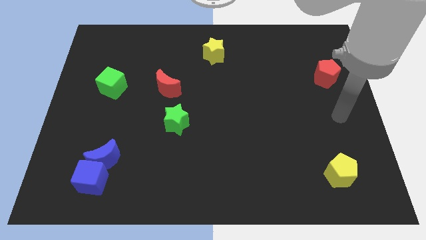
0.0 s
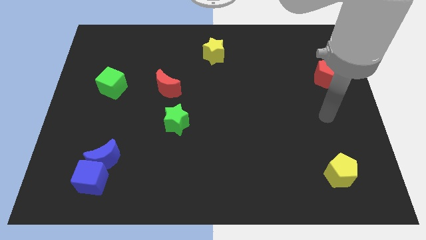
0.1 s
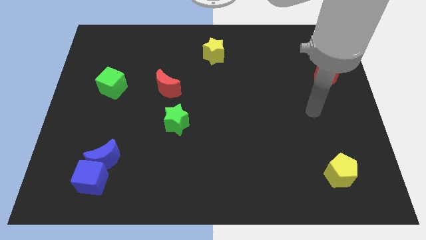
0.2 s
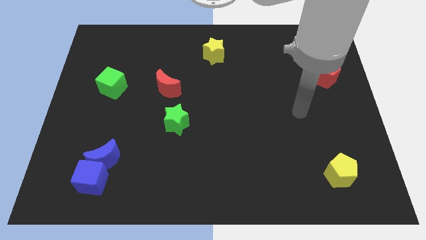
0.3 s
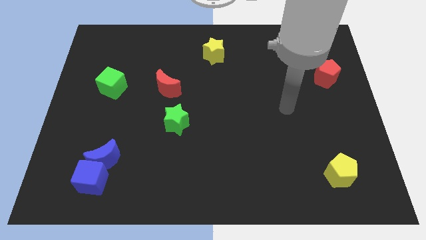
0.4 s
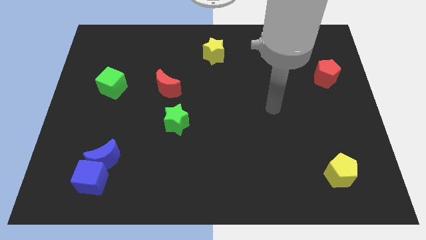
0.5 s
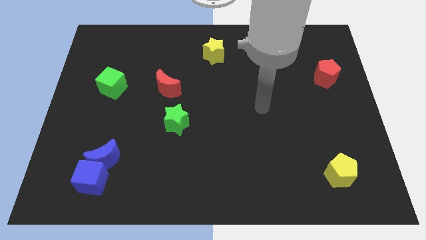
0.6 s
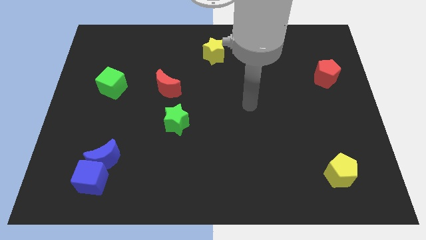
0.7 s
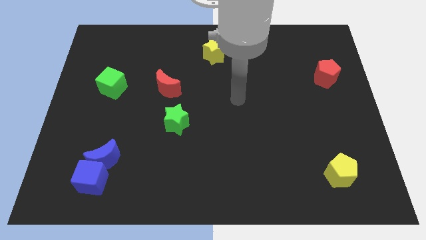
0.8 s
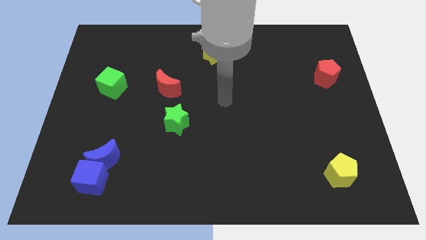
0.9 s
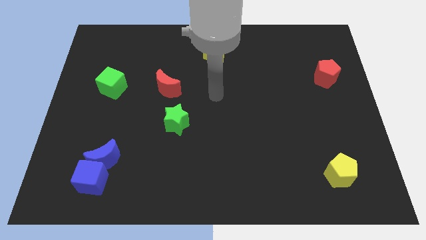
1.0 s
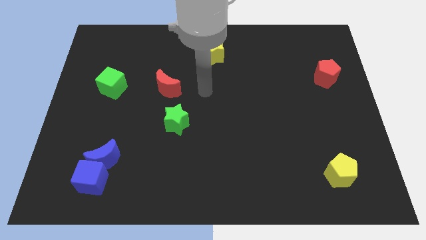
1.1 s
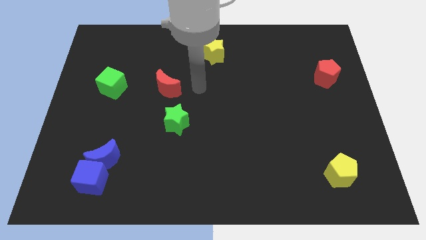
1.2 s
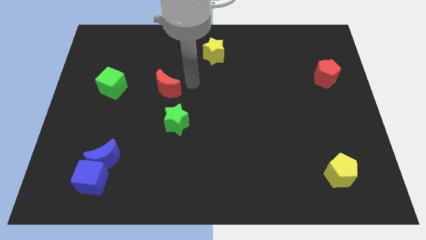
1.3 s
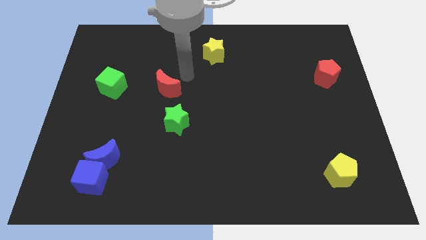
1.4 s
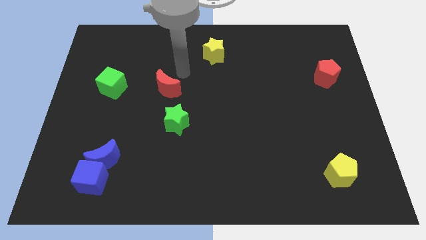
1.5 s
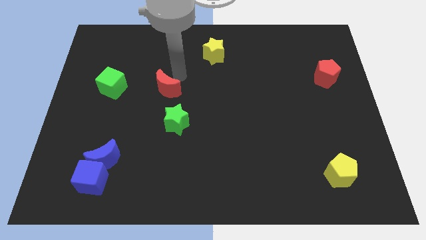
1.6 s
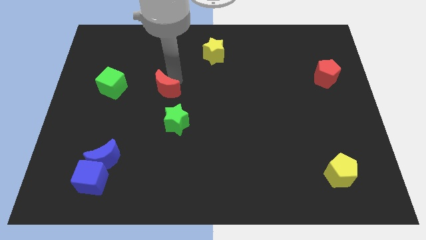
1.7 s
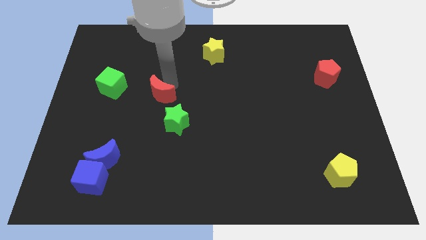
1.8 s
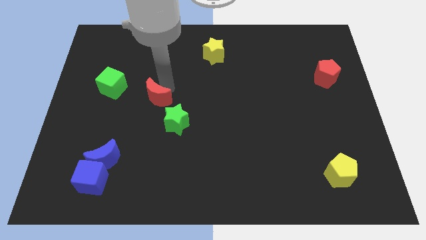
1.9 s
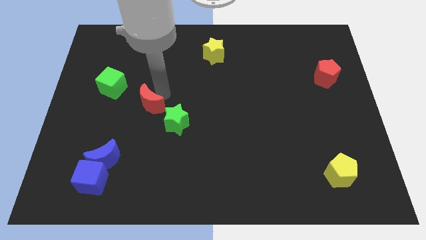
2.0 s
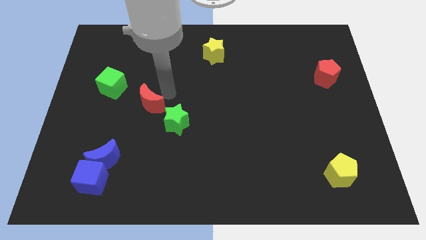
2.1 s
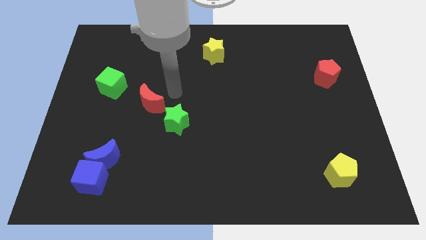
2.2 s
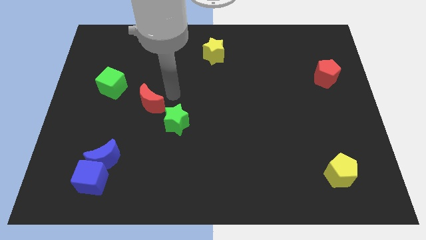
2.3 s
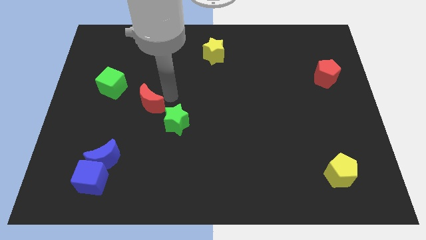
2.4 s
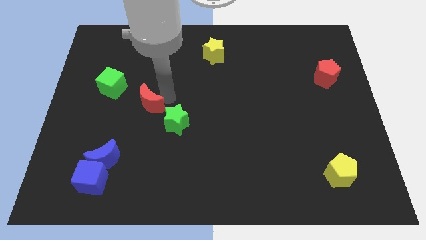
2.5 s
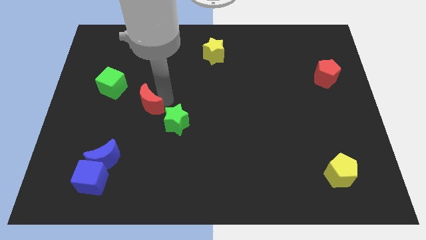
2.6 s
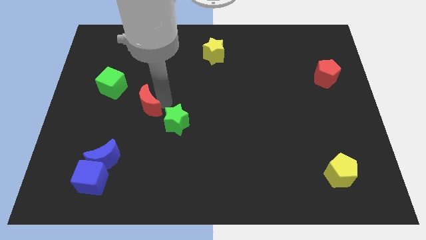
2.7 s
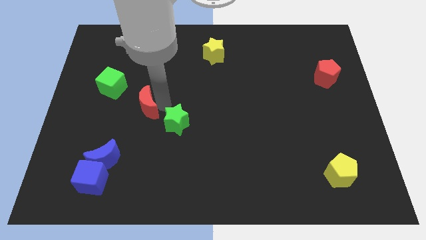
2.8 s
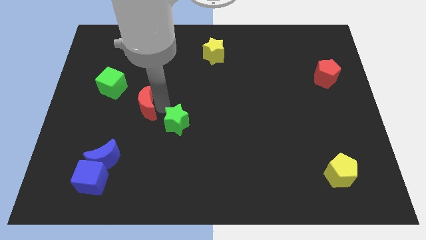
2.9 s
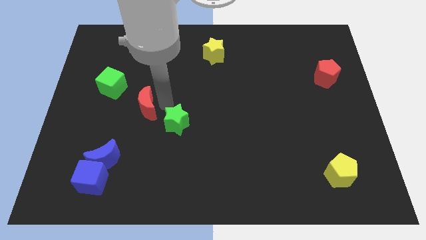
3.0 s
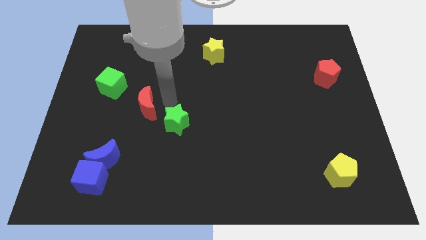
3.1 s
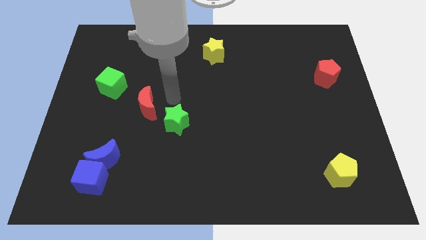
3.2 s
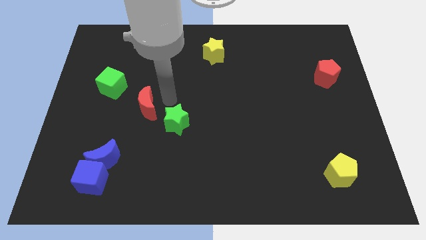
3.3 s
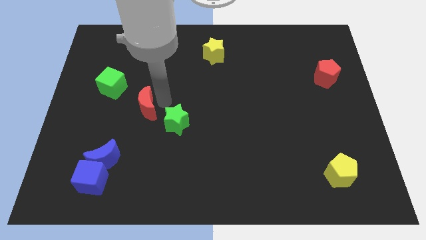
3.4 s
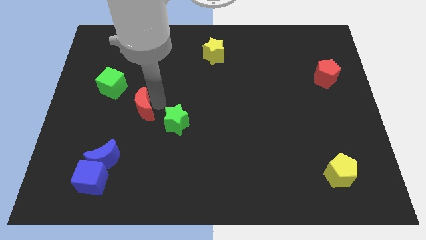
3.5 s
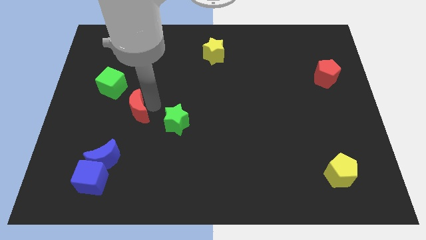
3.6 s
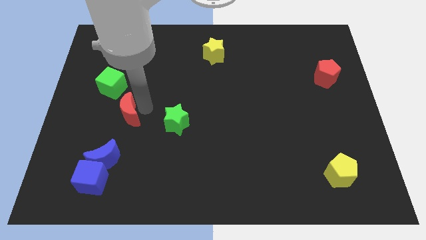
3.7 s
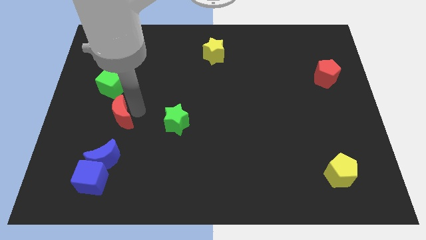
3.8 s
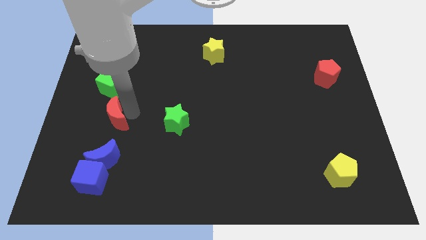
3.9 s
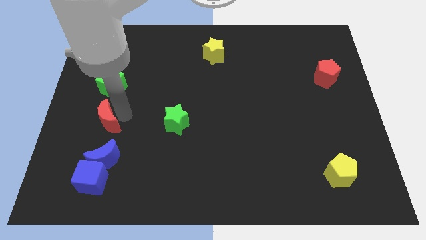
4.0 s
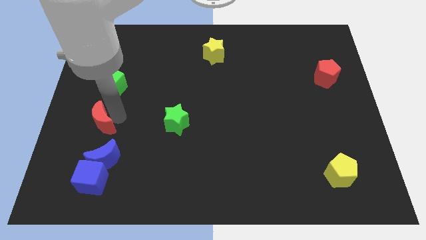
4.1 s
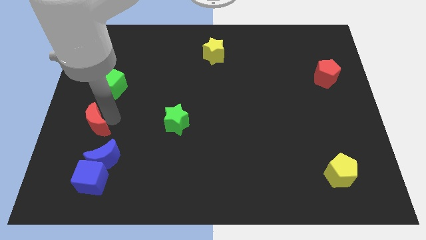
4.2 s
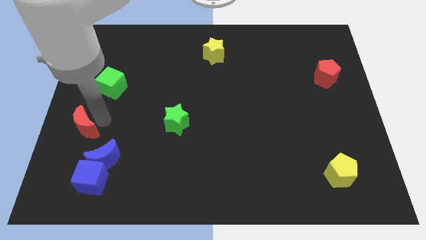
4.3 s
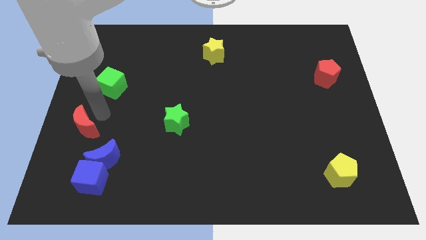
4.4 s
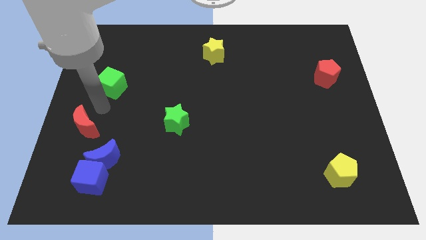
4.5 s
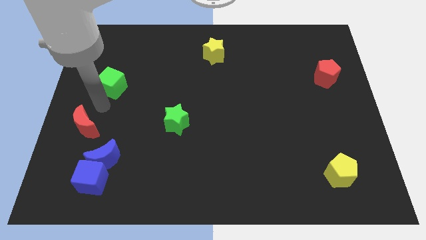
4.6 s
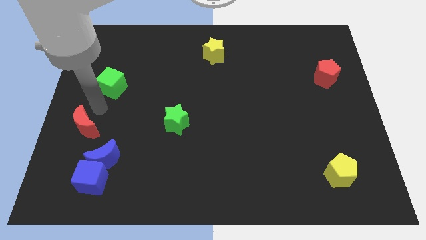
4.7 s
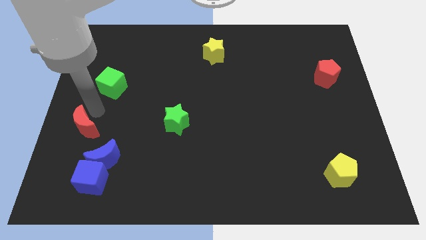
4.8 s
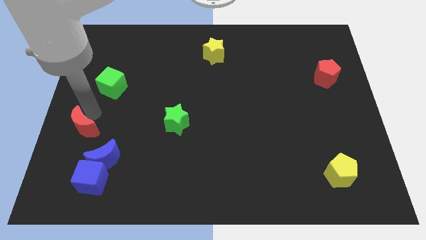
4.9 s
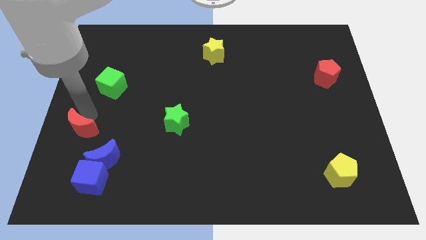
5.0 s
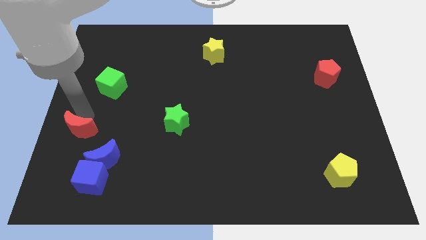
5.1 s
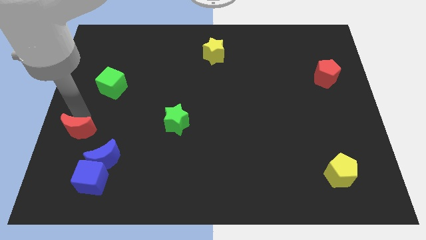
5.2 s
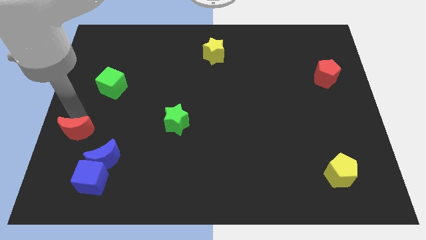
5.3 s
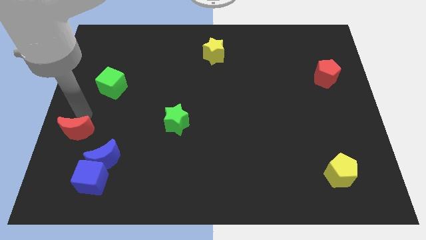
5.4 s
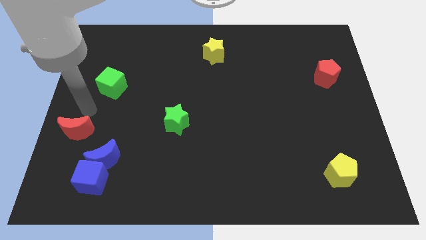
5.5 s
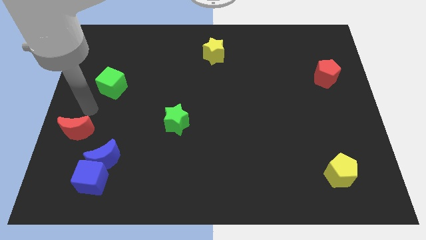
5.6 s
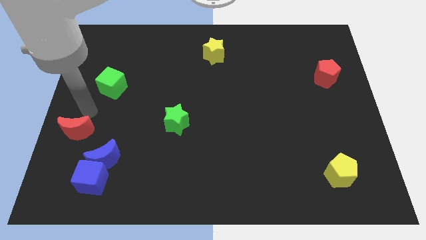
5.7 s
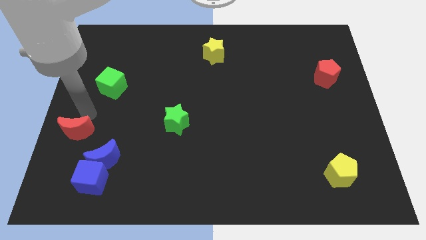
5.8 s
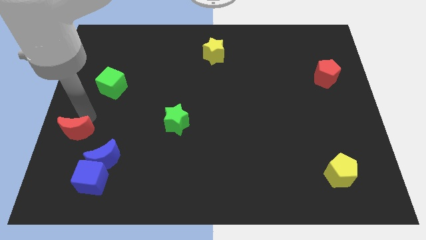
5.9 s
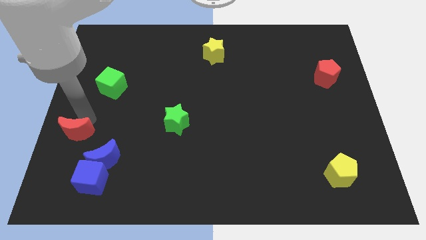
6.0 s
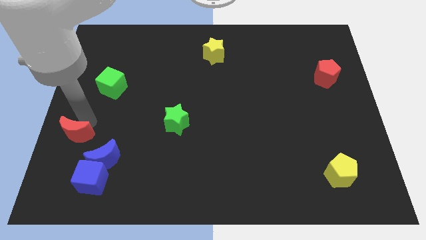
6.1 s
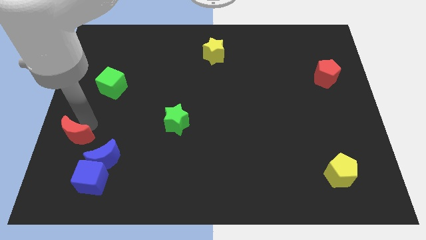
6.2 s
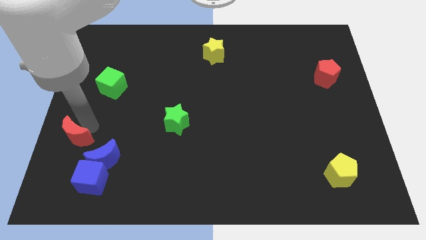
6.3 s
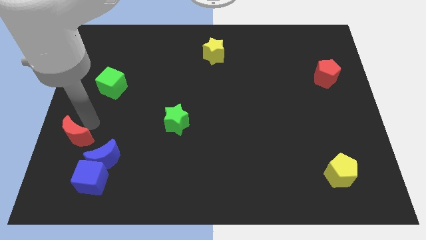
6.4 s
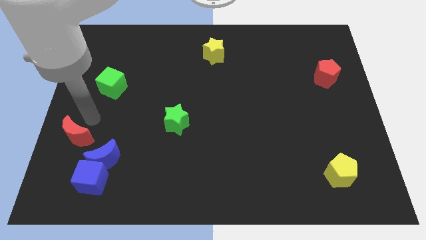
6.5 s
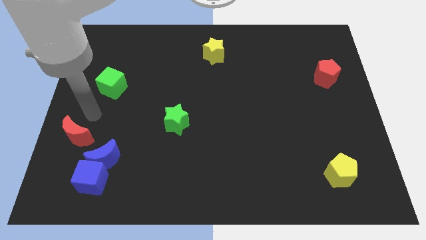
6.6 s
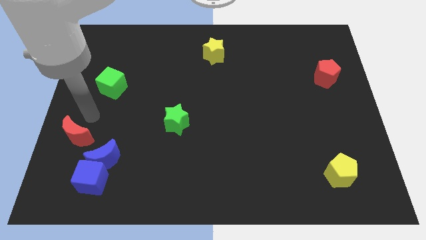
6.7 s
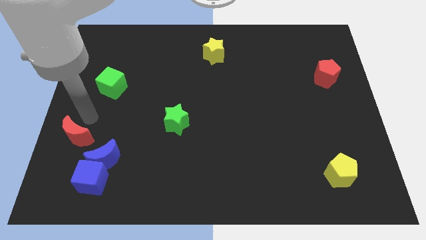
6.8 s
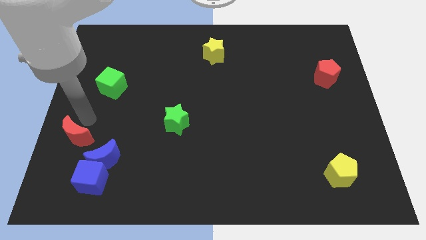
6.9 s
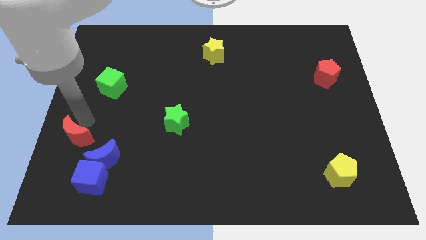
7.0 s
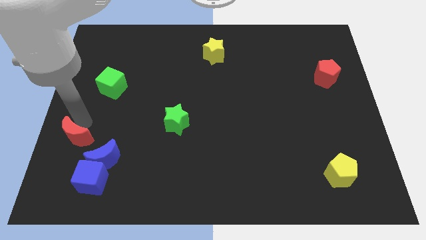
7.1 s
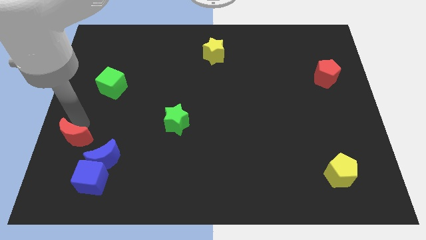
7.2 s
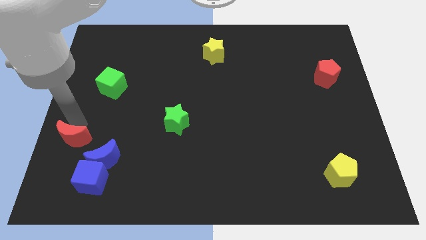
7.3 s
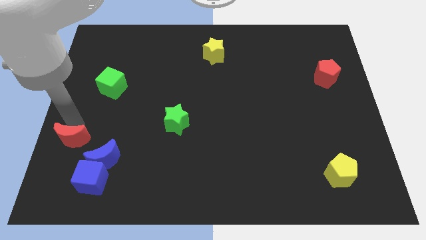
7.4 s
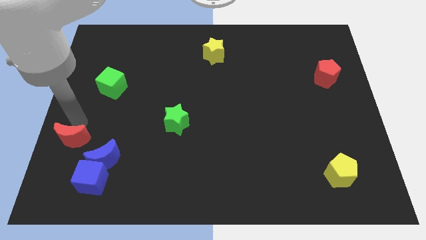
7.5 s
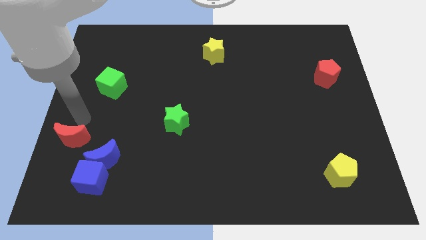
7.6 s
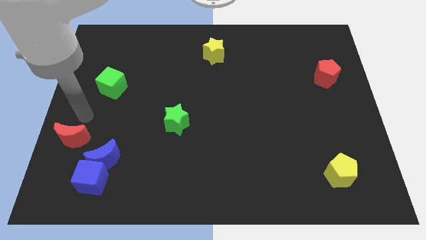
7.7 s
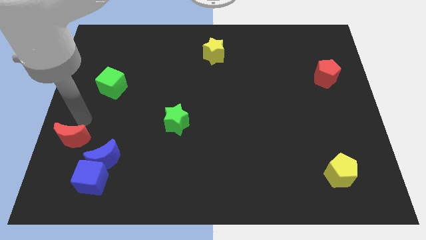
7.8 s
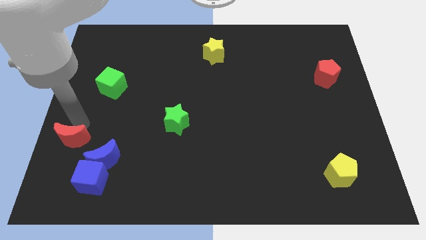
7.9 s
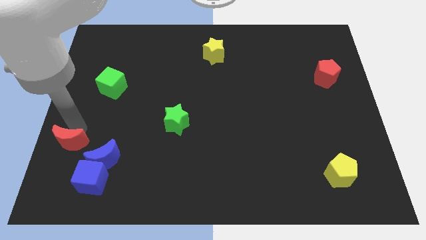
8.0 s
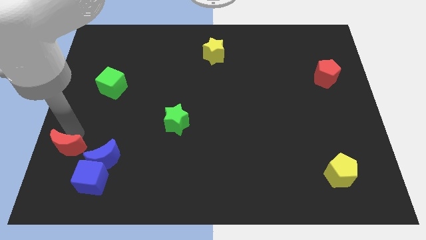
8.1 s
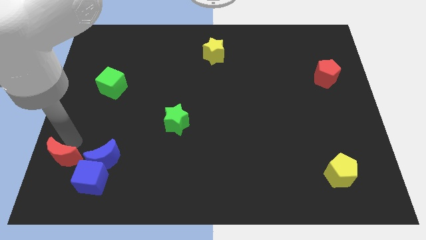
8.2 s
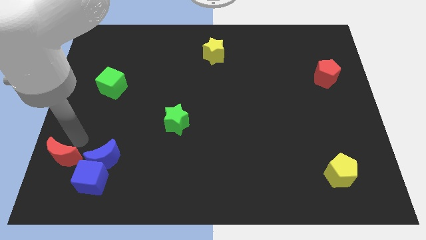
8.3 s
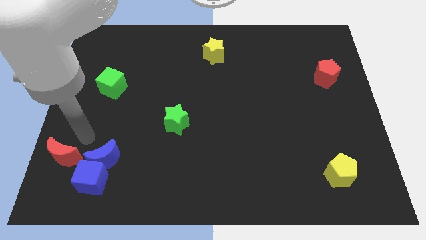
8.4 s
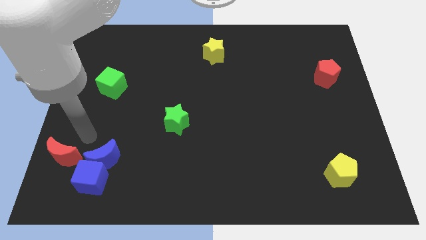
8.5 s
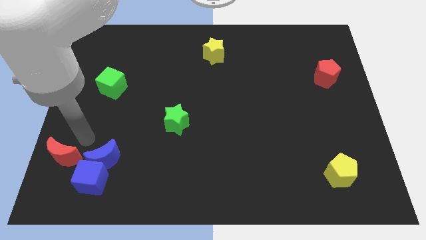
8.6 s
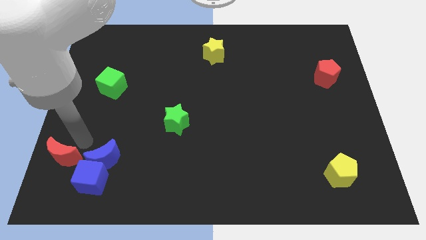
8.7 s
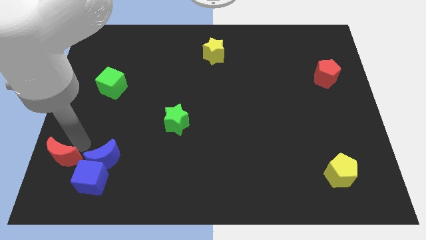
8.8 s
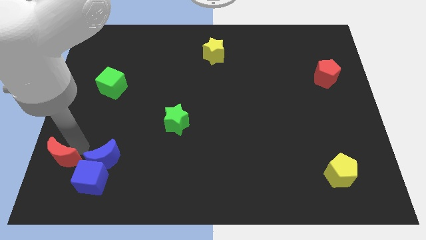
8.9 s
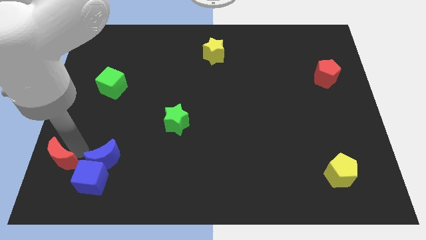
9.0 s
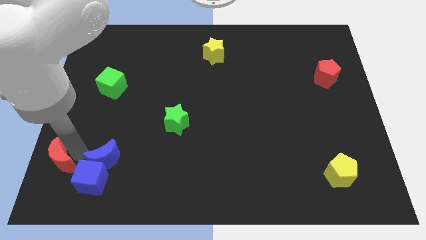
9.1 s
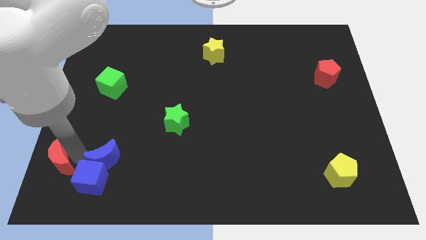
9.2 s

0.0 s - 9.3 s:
push the red moon to the bottom left corner
